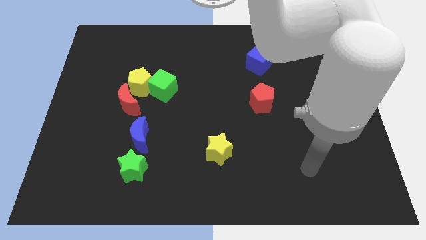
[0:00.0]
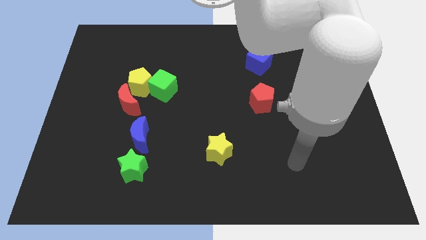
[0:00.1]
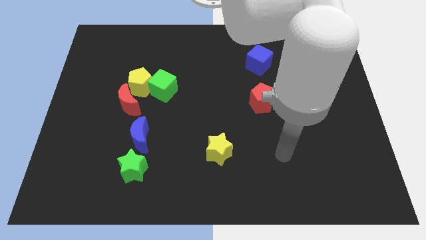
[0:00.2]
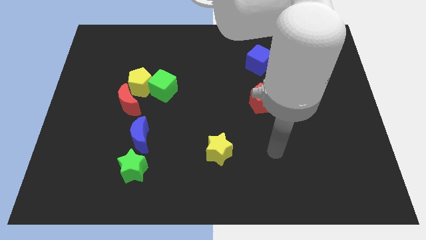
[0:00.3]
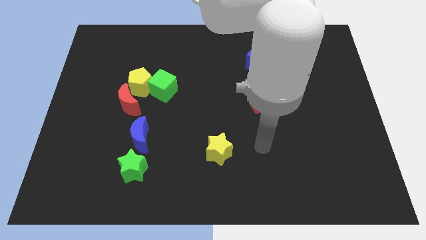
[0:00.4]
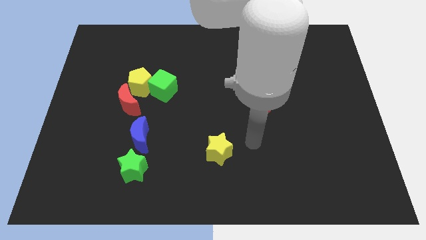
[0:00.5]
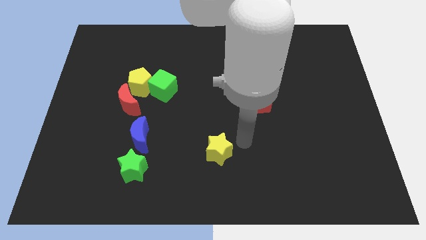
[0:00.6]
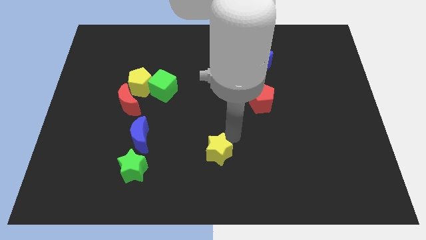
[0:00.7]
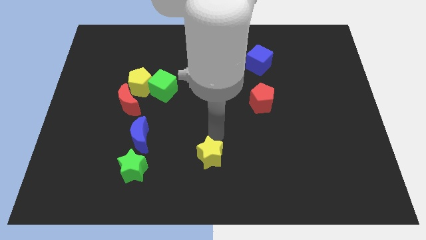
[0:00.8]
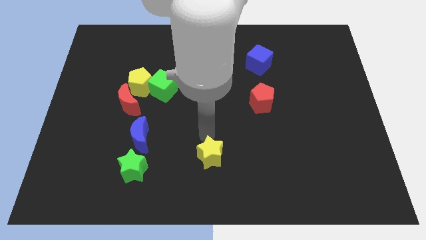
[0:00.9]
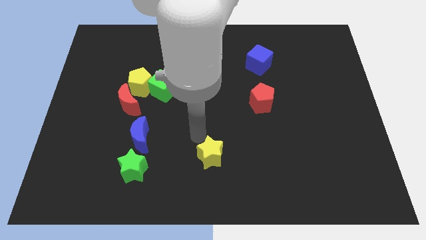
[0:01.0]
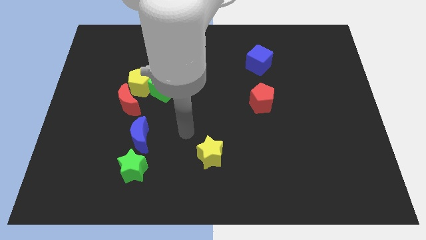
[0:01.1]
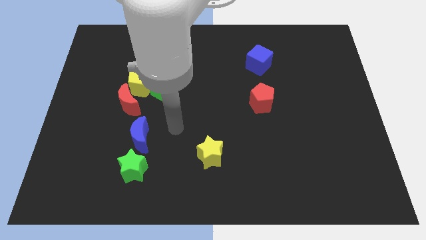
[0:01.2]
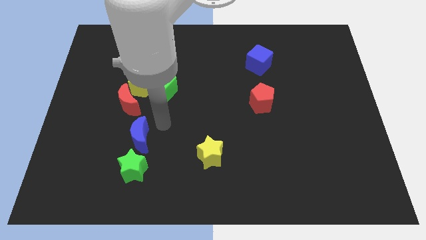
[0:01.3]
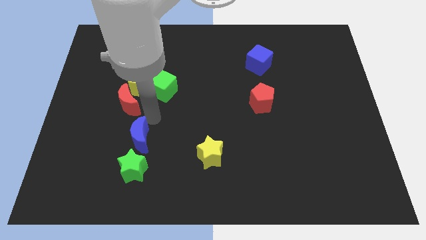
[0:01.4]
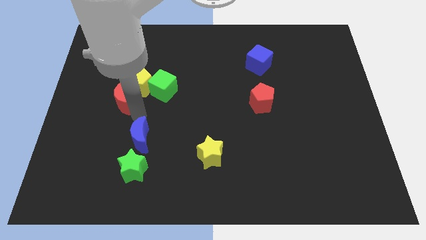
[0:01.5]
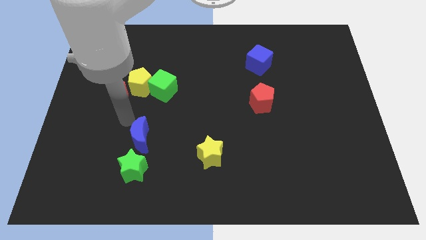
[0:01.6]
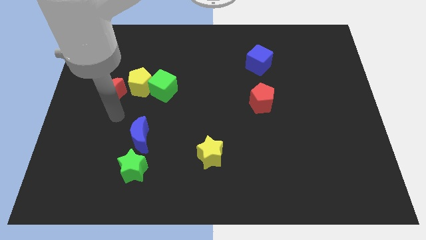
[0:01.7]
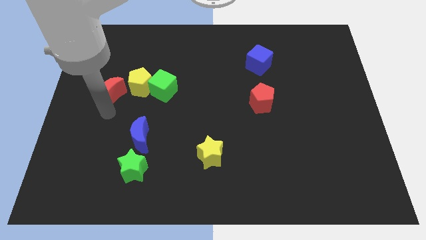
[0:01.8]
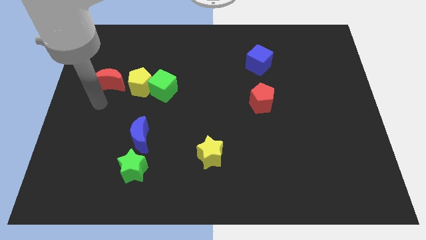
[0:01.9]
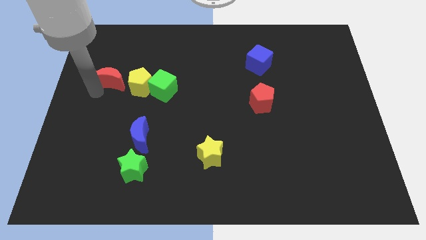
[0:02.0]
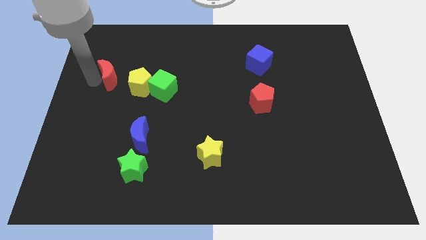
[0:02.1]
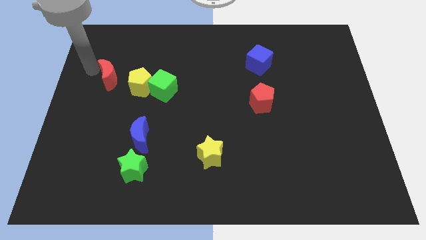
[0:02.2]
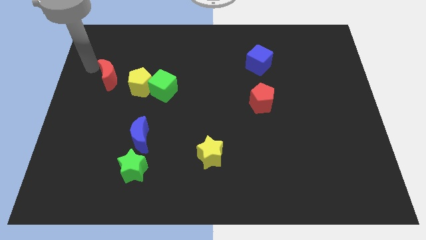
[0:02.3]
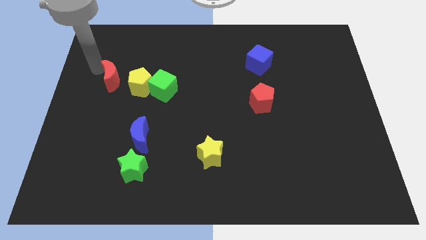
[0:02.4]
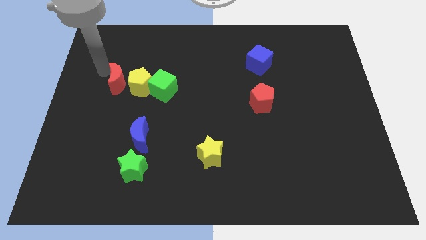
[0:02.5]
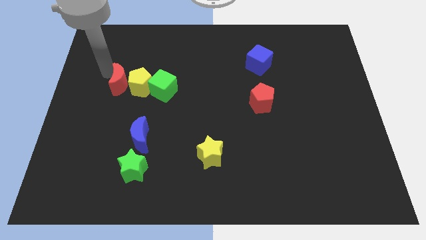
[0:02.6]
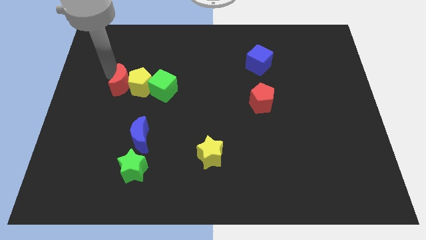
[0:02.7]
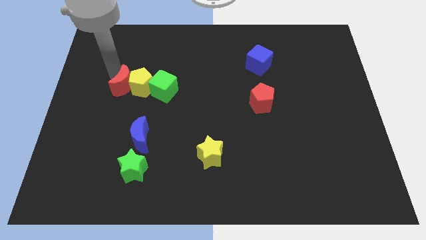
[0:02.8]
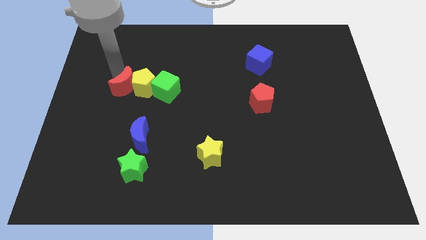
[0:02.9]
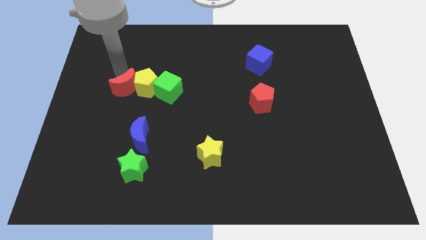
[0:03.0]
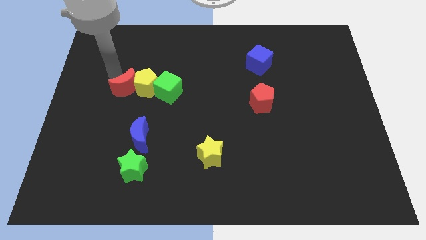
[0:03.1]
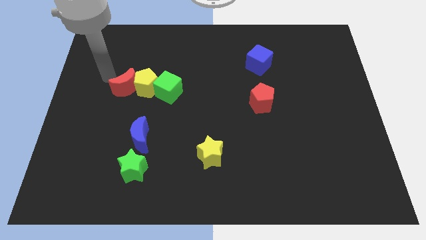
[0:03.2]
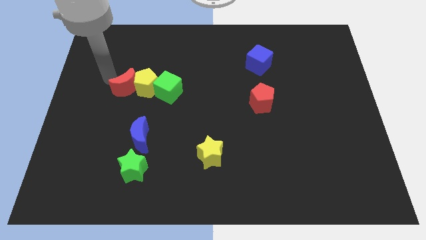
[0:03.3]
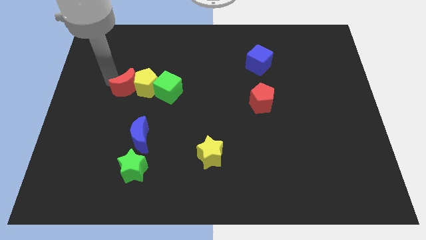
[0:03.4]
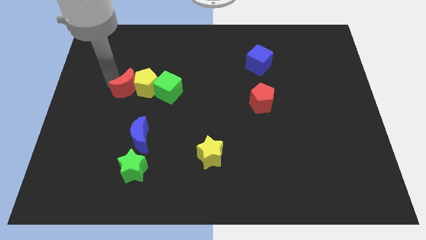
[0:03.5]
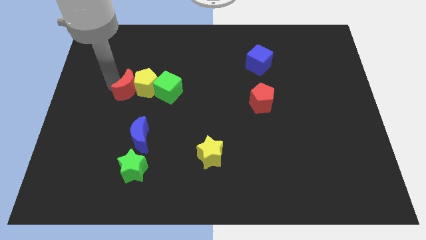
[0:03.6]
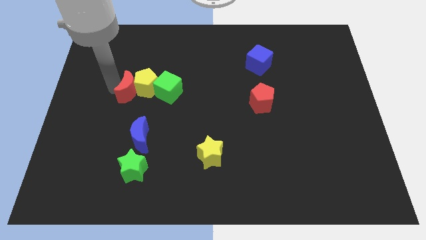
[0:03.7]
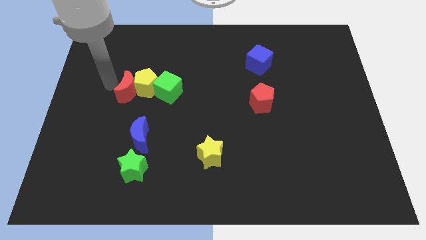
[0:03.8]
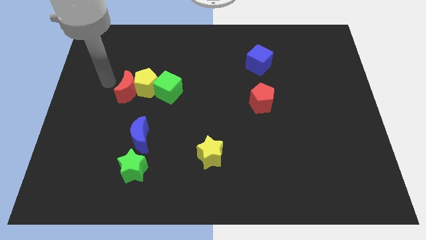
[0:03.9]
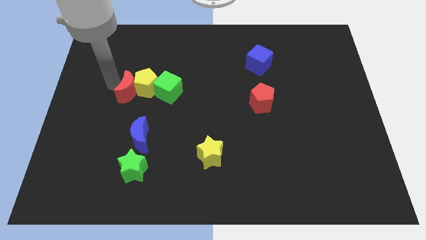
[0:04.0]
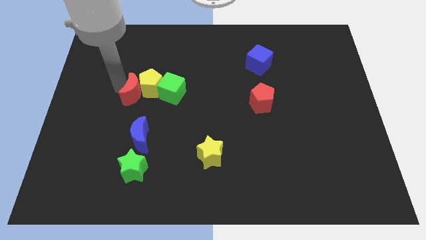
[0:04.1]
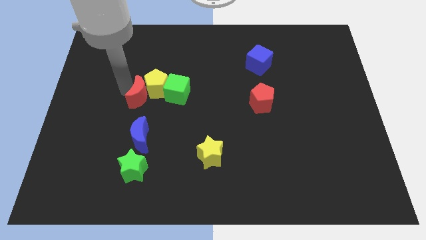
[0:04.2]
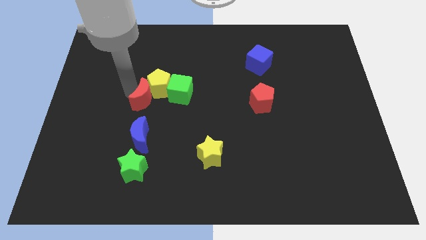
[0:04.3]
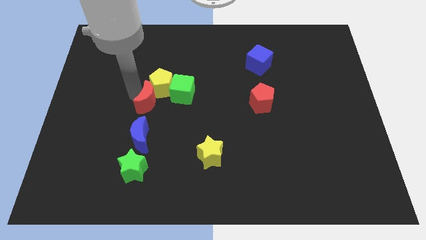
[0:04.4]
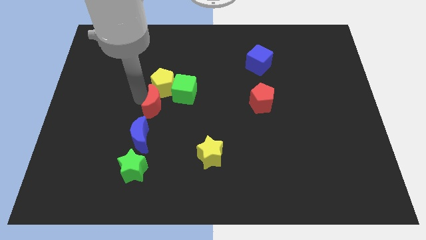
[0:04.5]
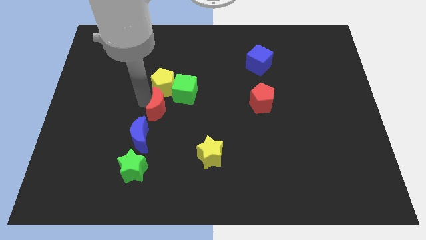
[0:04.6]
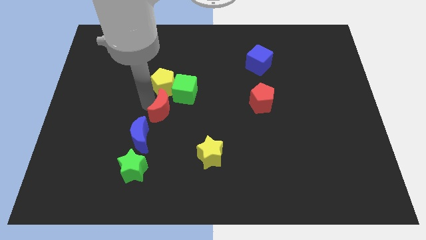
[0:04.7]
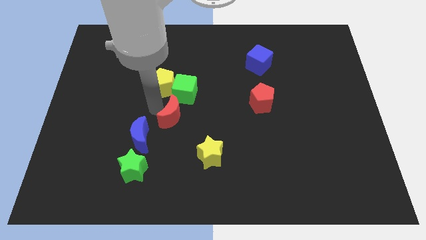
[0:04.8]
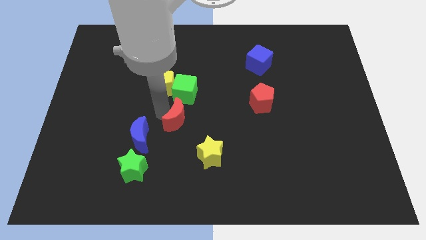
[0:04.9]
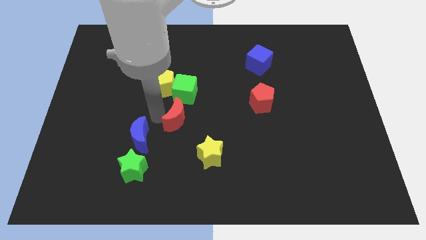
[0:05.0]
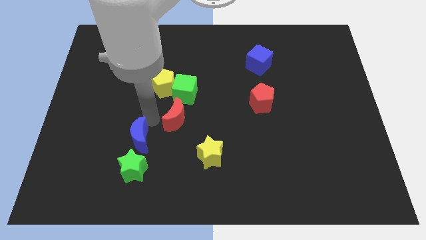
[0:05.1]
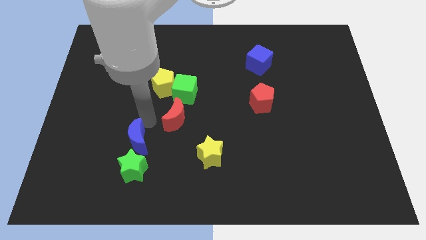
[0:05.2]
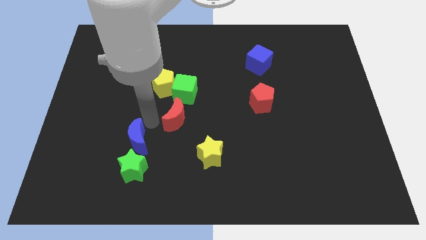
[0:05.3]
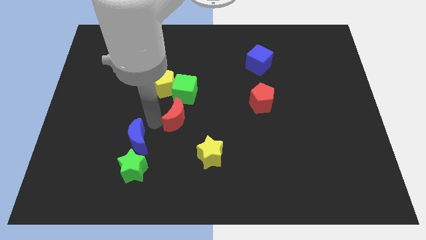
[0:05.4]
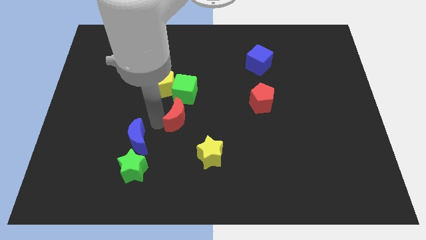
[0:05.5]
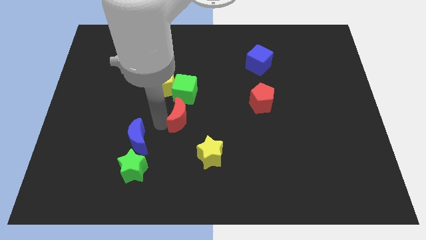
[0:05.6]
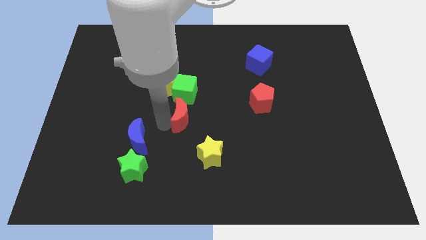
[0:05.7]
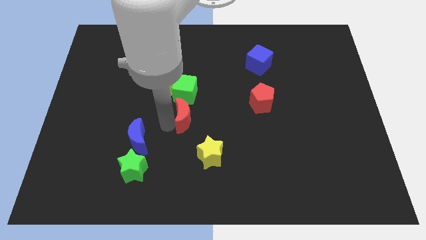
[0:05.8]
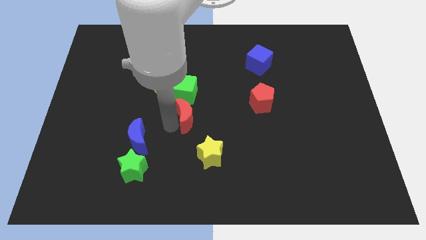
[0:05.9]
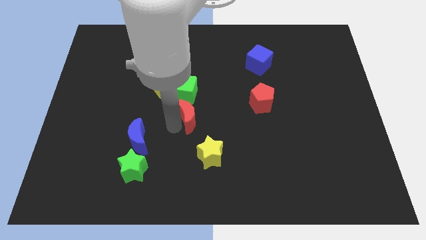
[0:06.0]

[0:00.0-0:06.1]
slide the red moon to the top side of the yellow star

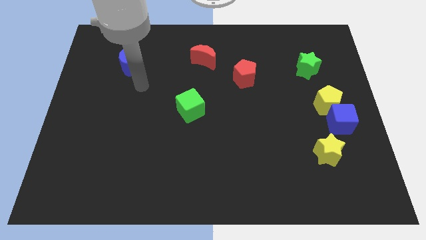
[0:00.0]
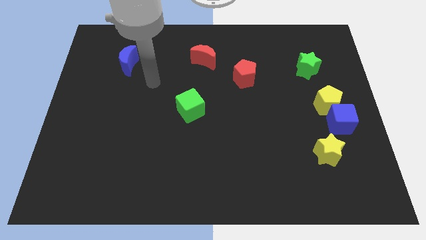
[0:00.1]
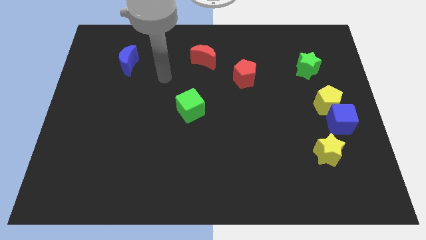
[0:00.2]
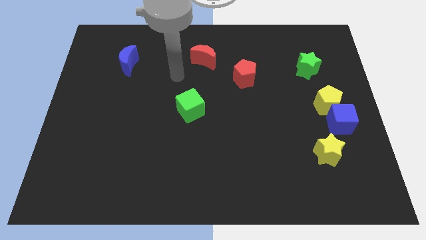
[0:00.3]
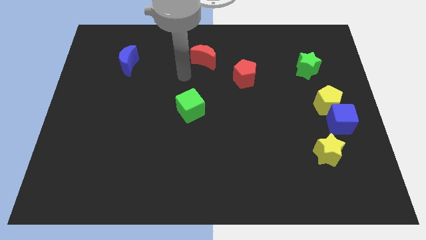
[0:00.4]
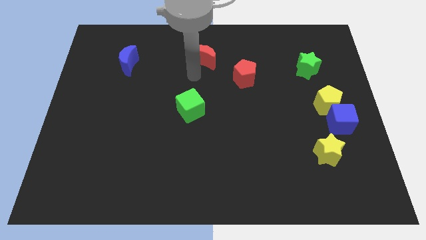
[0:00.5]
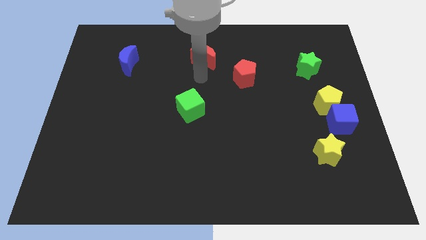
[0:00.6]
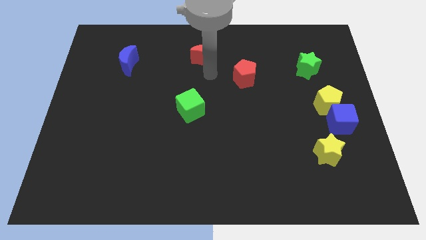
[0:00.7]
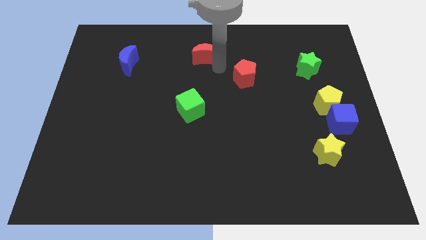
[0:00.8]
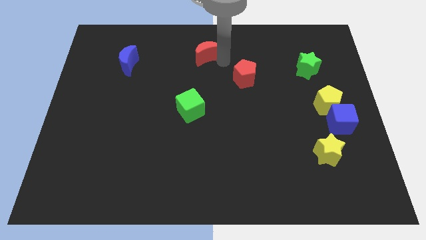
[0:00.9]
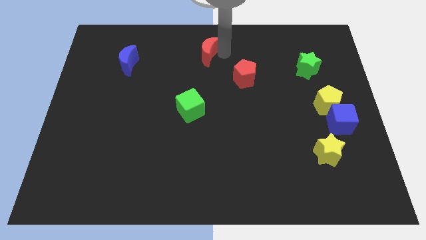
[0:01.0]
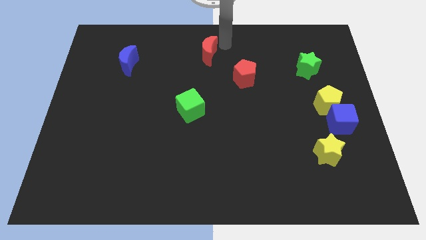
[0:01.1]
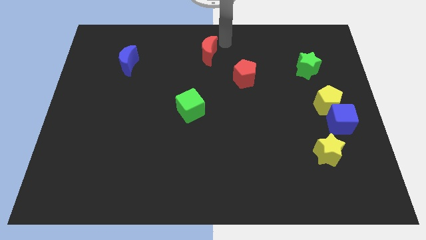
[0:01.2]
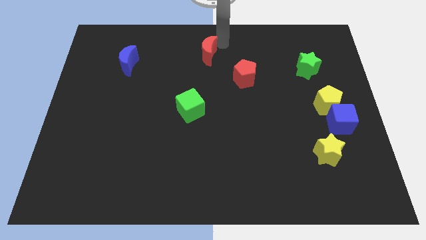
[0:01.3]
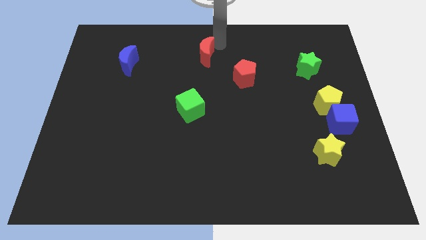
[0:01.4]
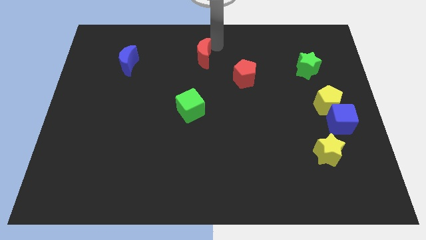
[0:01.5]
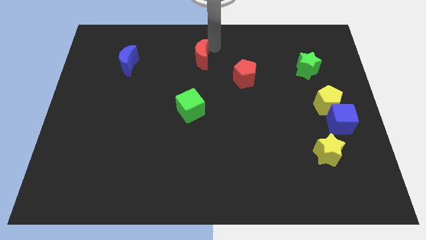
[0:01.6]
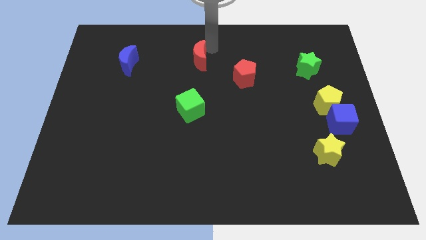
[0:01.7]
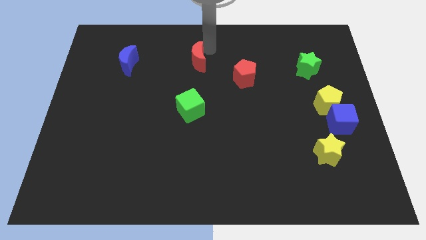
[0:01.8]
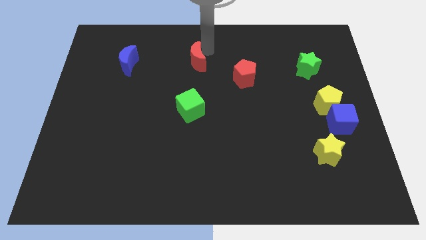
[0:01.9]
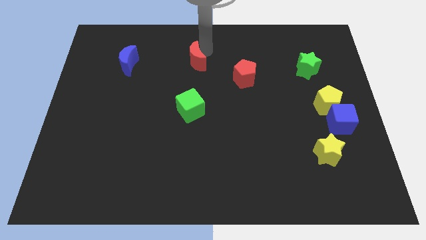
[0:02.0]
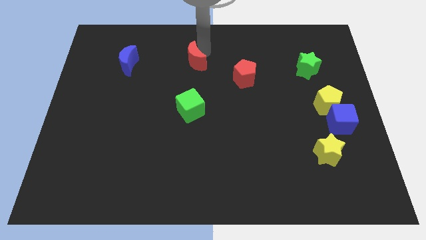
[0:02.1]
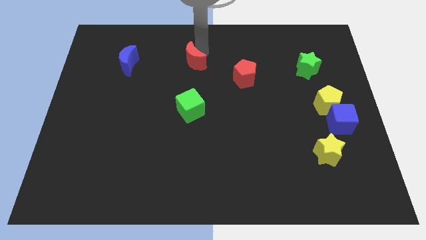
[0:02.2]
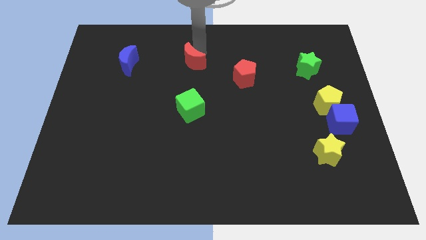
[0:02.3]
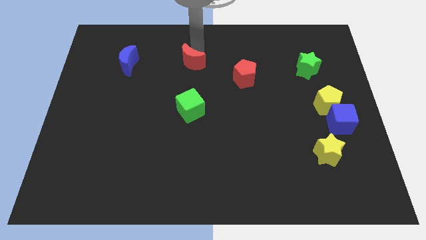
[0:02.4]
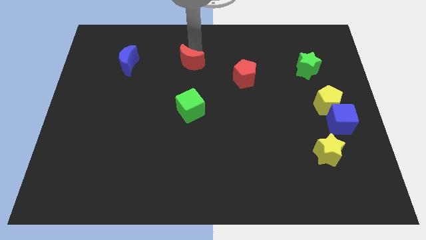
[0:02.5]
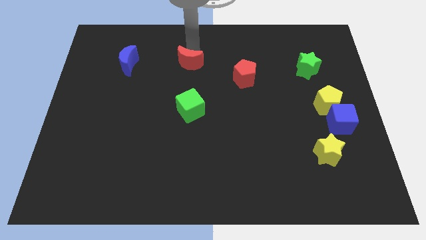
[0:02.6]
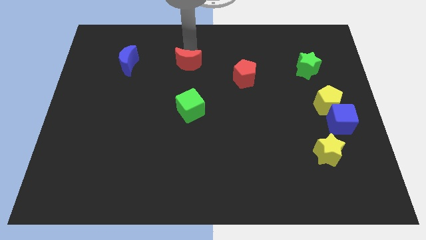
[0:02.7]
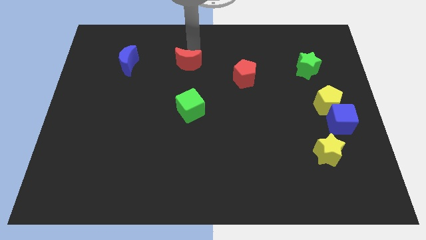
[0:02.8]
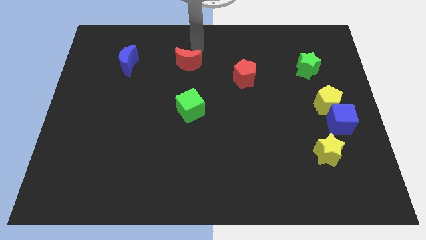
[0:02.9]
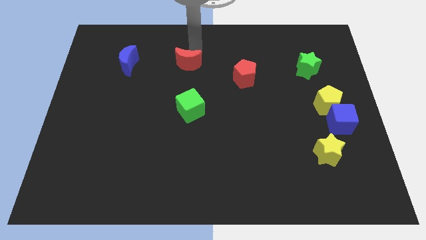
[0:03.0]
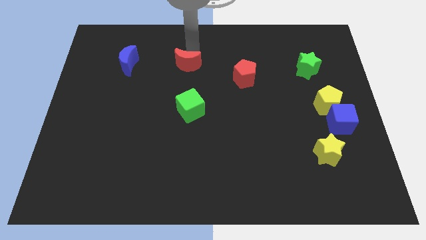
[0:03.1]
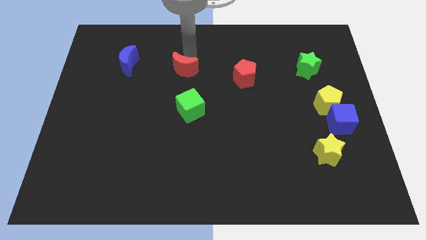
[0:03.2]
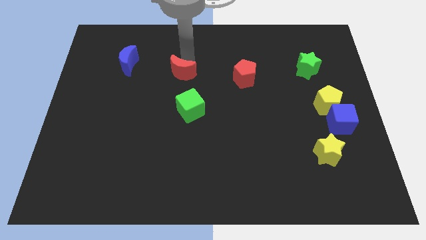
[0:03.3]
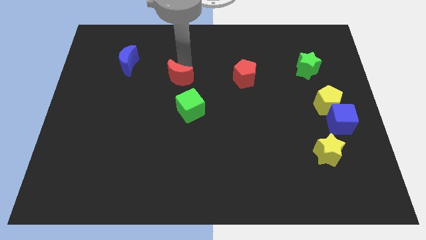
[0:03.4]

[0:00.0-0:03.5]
move the red moon to the top left of the green cube
